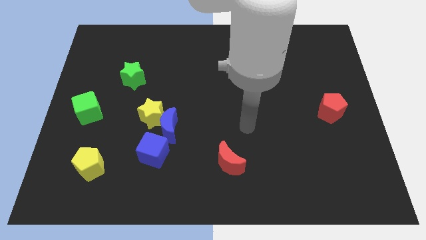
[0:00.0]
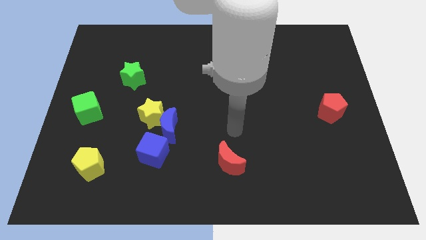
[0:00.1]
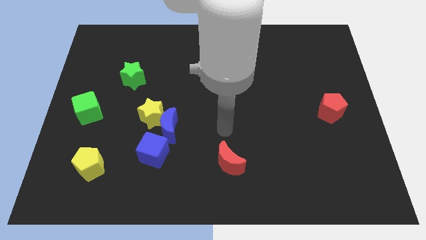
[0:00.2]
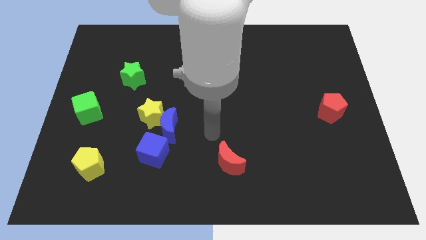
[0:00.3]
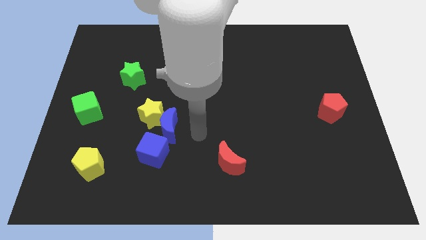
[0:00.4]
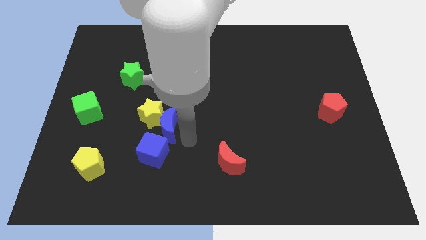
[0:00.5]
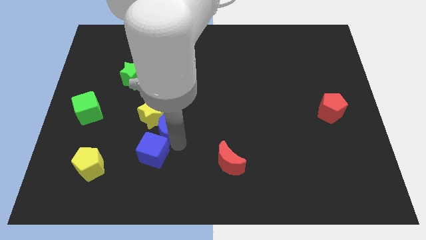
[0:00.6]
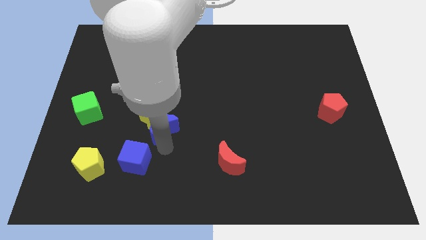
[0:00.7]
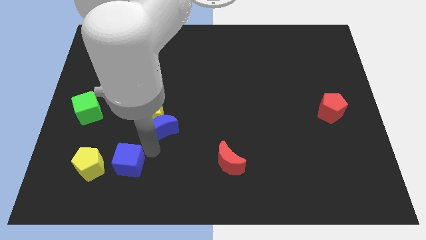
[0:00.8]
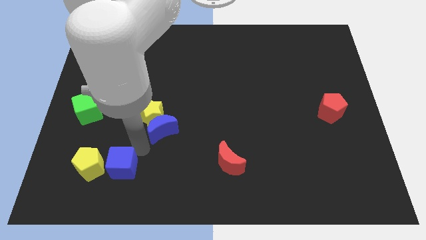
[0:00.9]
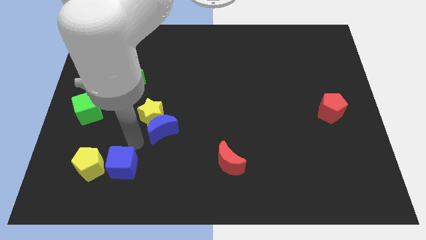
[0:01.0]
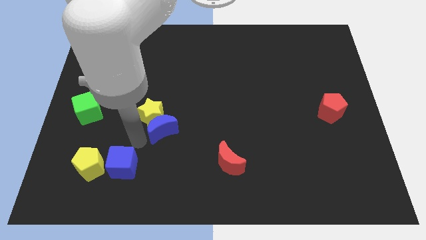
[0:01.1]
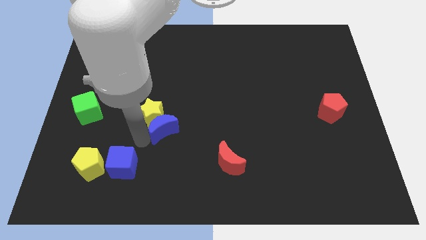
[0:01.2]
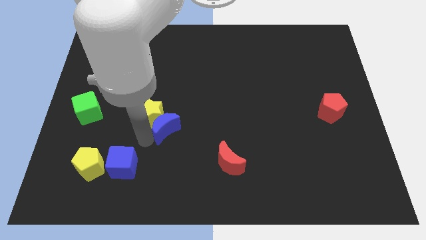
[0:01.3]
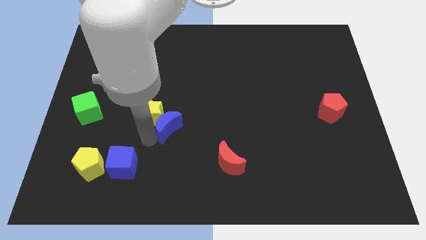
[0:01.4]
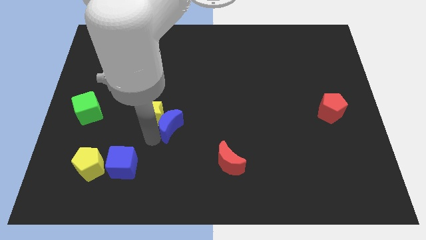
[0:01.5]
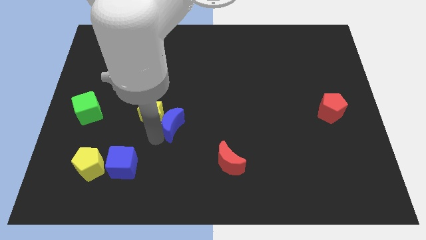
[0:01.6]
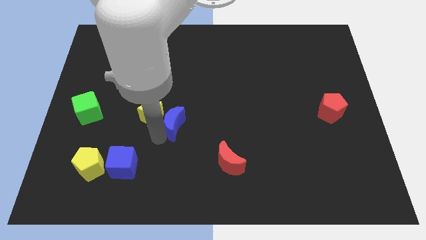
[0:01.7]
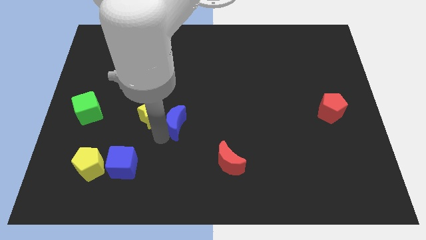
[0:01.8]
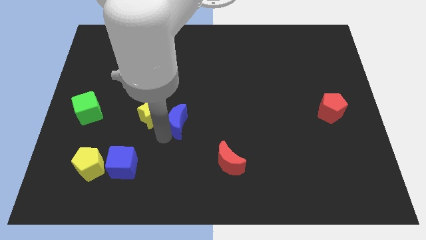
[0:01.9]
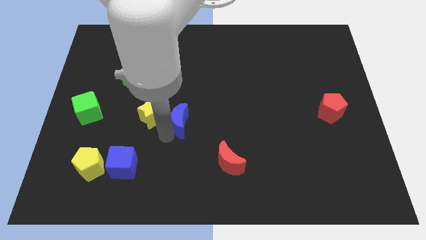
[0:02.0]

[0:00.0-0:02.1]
separate the blue moon from the yellow star and blue cube

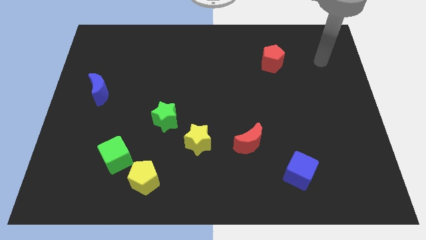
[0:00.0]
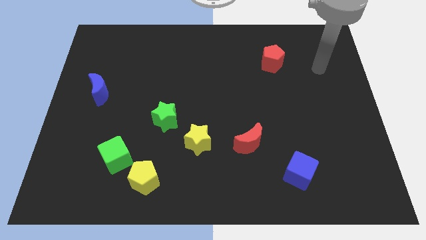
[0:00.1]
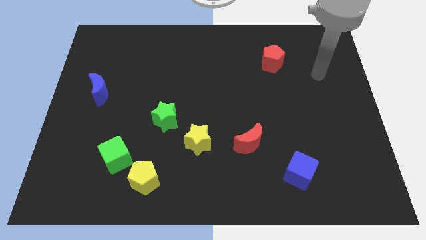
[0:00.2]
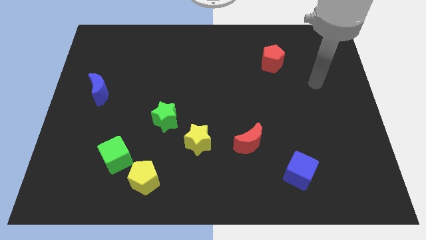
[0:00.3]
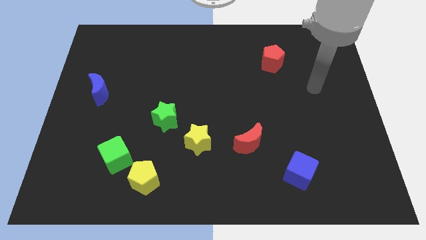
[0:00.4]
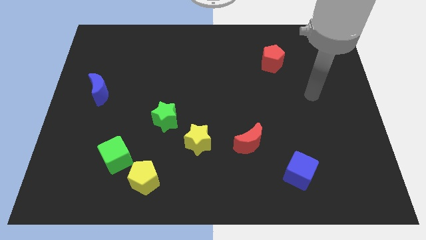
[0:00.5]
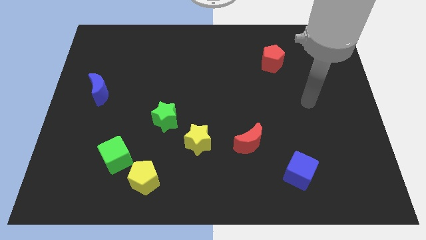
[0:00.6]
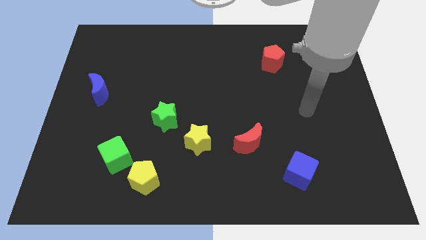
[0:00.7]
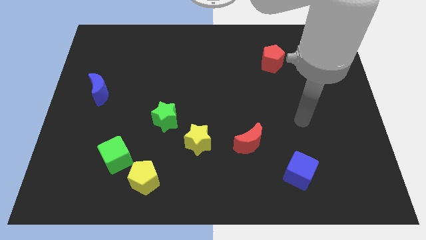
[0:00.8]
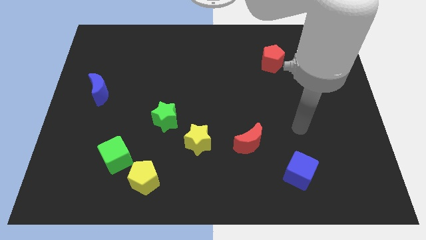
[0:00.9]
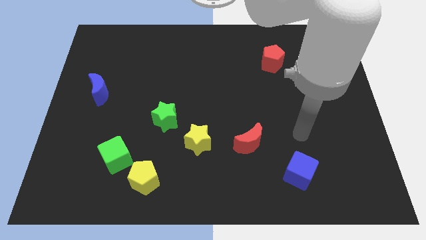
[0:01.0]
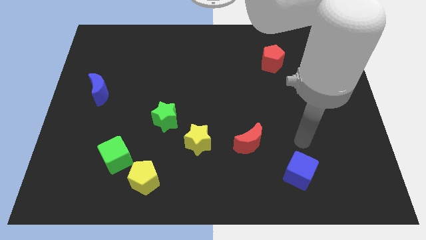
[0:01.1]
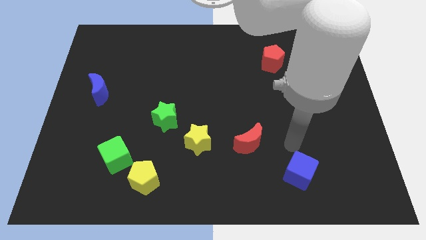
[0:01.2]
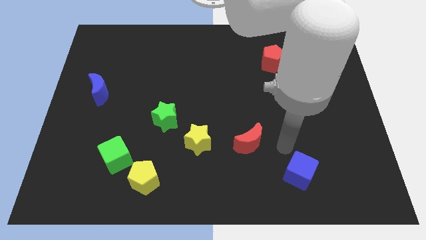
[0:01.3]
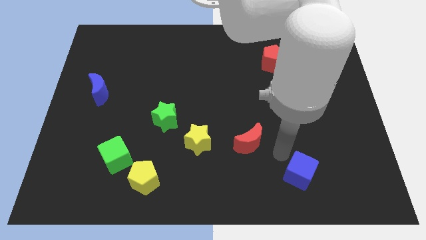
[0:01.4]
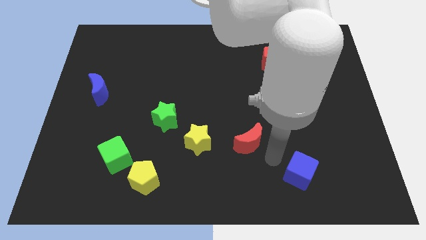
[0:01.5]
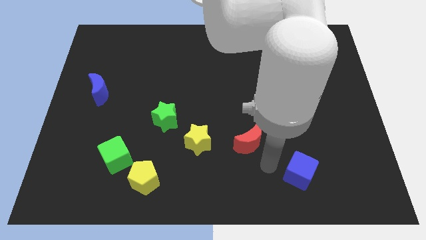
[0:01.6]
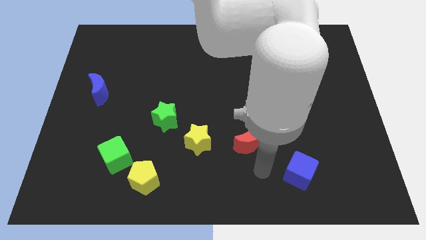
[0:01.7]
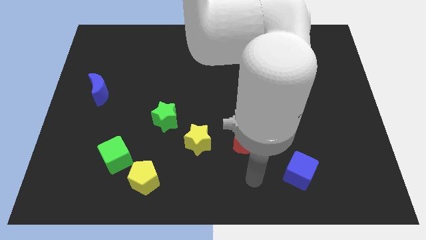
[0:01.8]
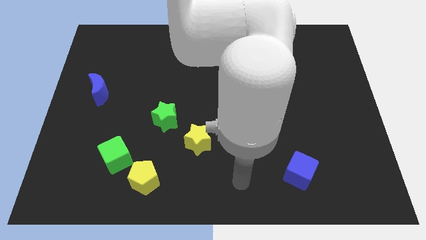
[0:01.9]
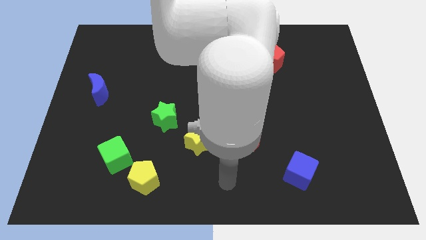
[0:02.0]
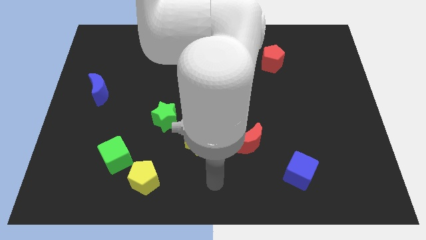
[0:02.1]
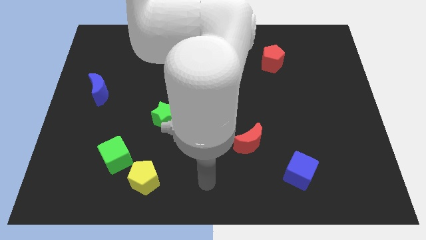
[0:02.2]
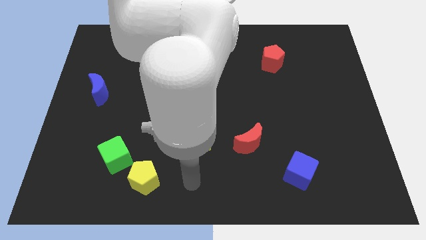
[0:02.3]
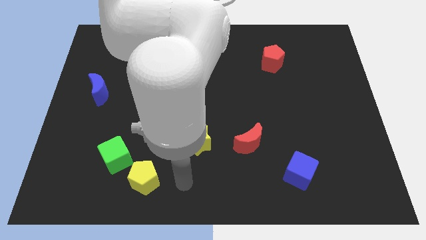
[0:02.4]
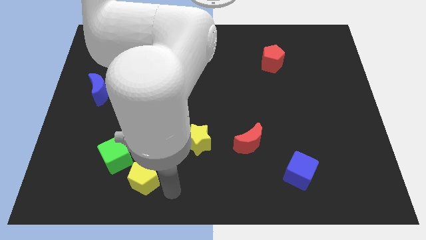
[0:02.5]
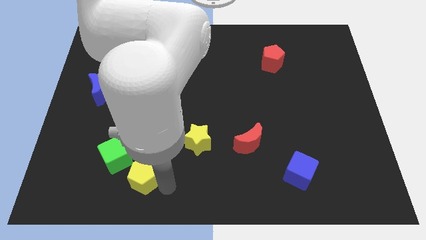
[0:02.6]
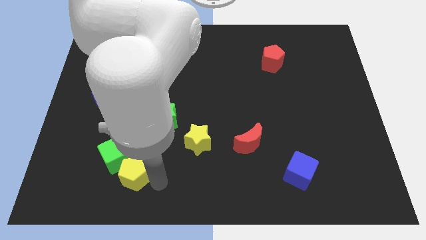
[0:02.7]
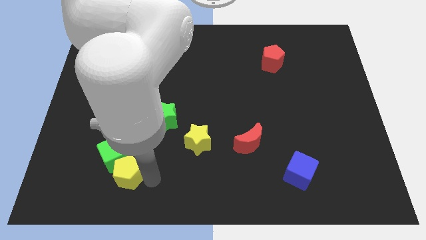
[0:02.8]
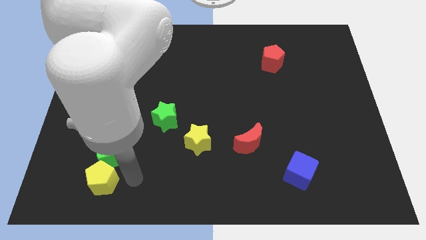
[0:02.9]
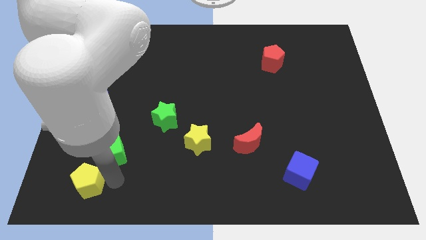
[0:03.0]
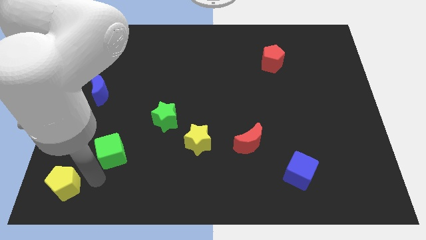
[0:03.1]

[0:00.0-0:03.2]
move the green cube away from the yellow pentagon

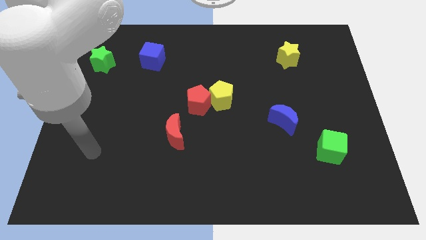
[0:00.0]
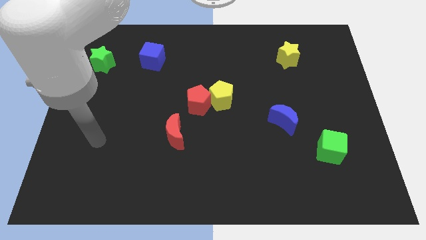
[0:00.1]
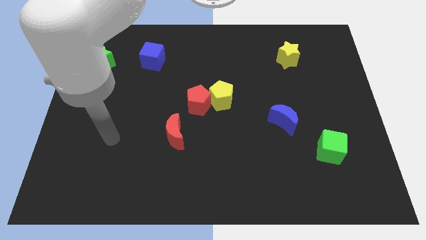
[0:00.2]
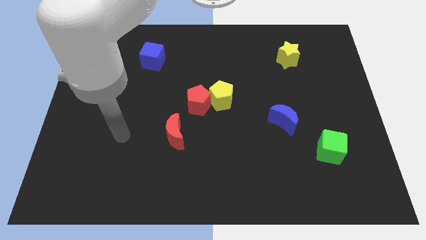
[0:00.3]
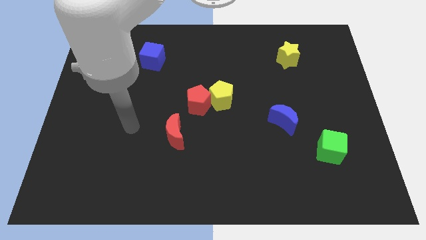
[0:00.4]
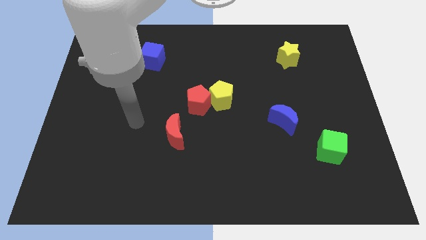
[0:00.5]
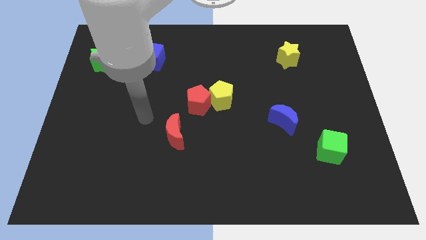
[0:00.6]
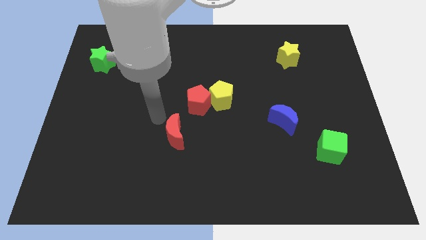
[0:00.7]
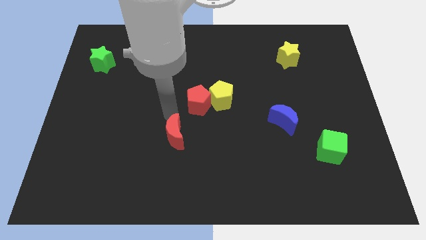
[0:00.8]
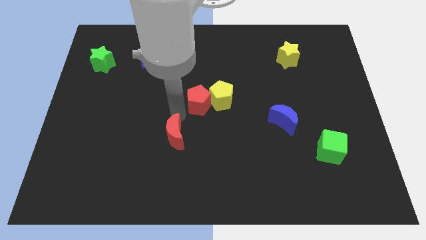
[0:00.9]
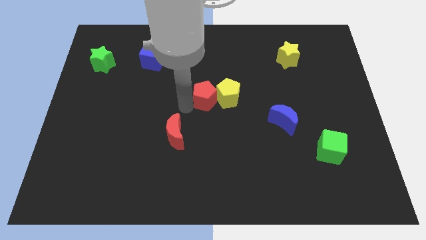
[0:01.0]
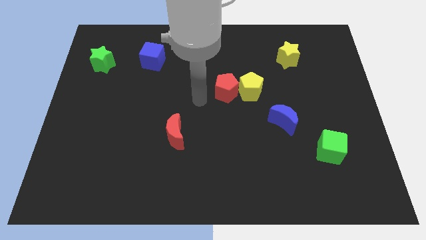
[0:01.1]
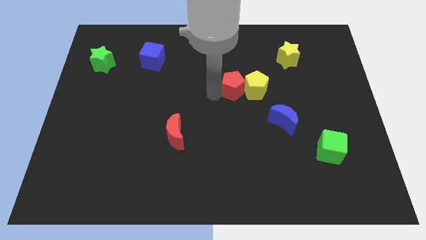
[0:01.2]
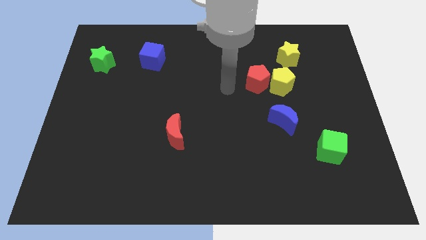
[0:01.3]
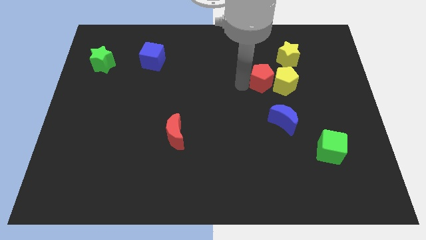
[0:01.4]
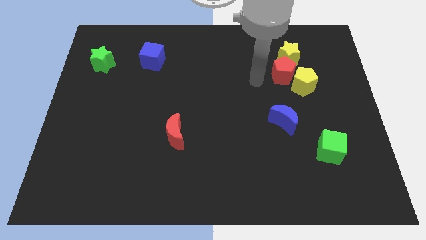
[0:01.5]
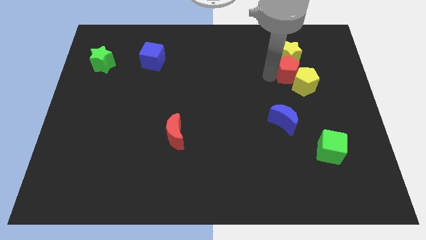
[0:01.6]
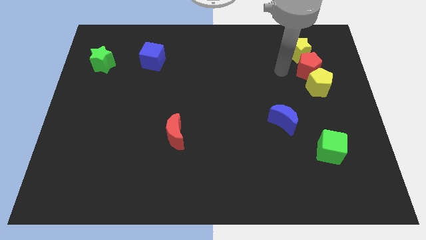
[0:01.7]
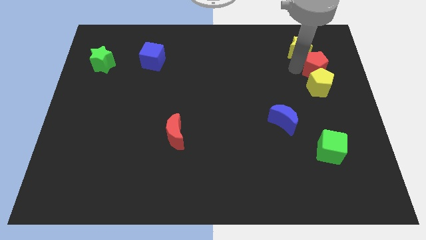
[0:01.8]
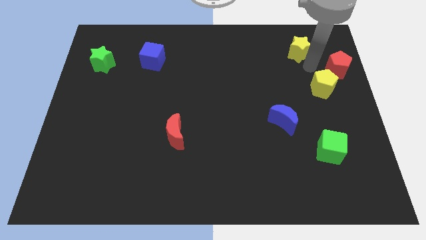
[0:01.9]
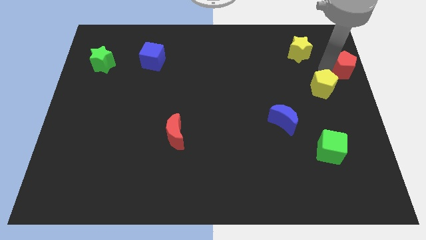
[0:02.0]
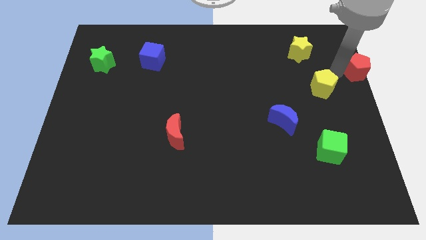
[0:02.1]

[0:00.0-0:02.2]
pull the yellow pentagon apart from the red pentagon

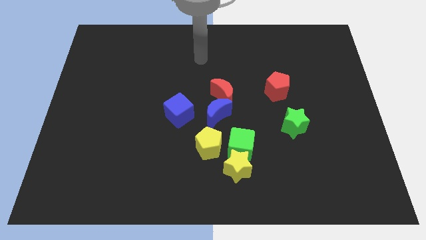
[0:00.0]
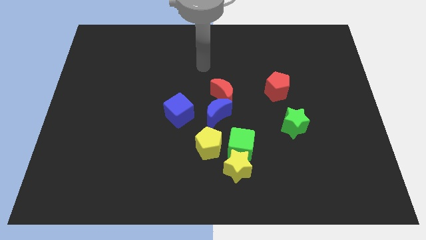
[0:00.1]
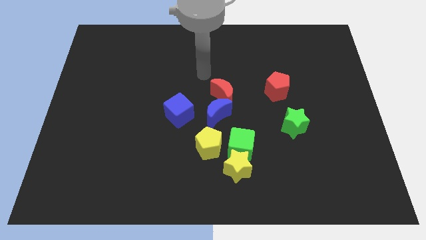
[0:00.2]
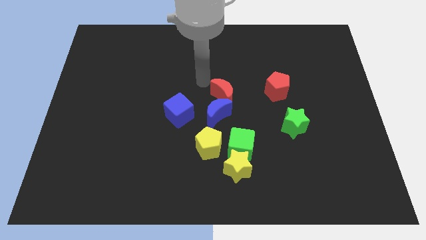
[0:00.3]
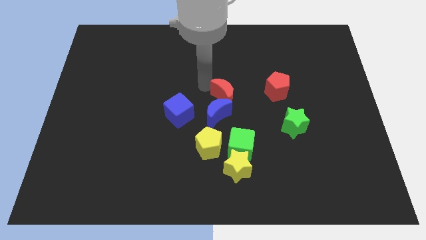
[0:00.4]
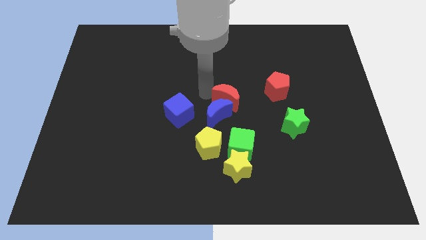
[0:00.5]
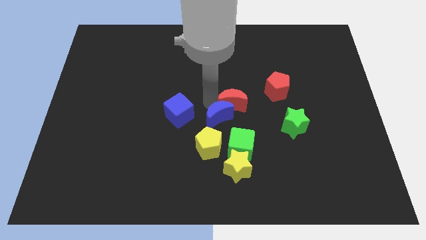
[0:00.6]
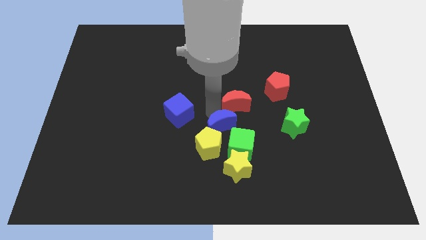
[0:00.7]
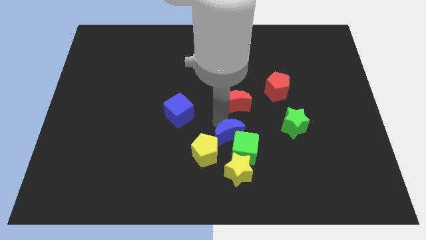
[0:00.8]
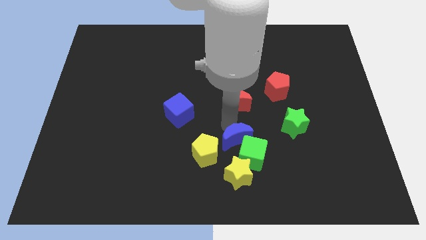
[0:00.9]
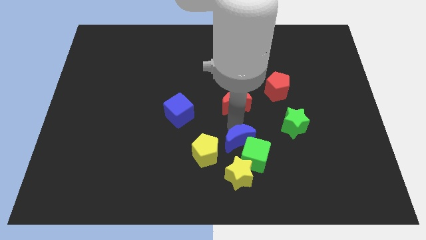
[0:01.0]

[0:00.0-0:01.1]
pull the red moon apart from the blue moon

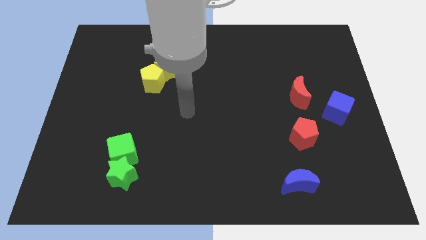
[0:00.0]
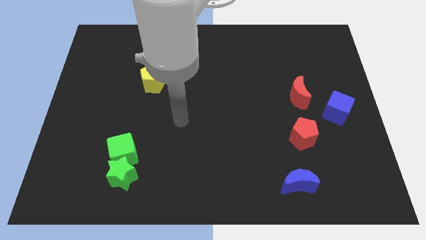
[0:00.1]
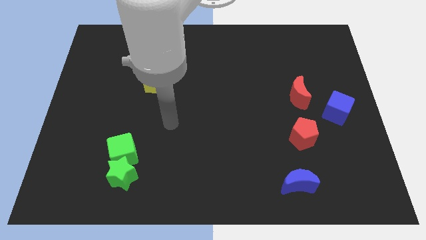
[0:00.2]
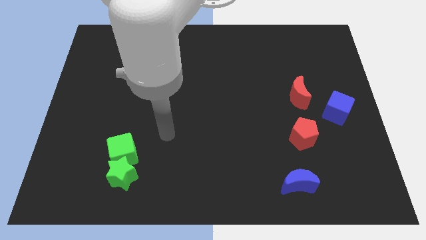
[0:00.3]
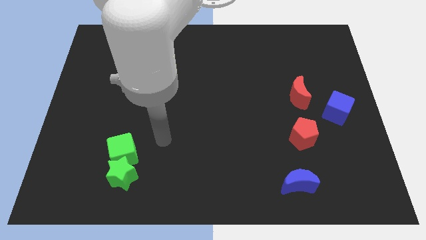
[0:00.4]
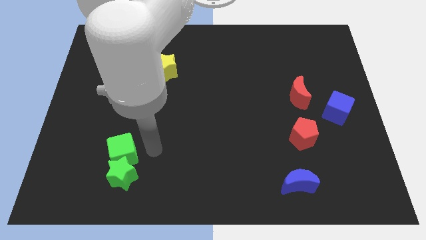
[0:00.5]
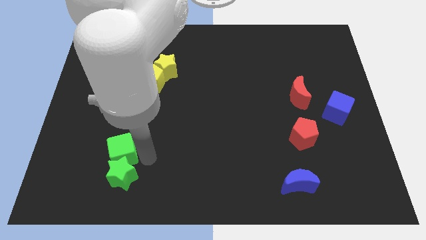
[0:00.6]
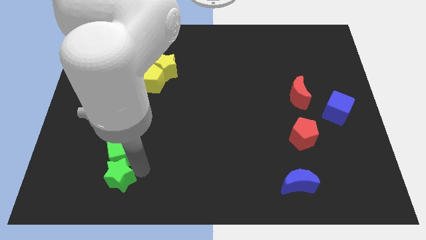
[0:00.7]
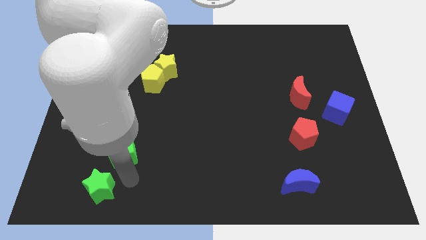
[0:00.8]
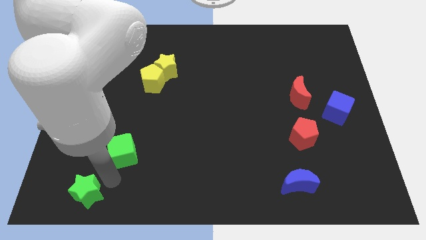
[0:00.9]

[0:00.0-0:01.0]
move the green cube away from the green star
